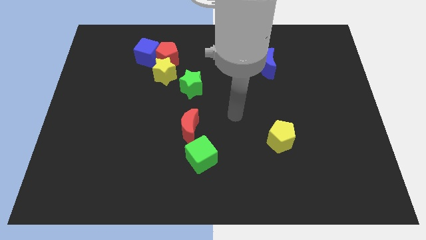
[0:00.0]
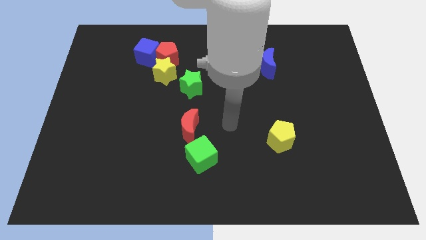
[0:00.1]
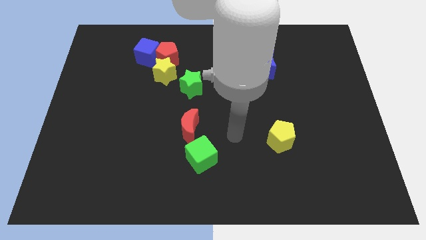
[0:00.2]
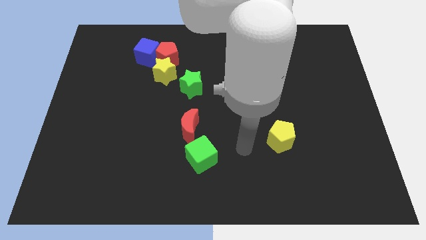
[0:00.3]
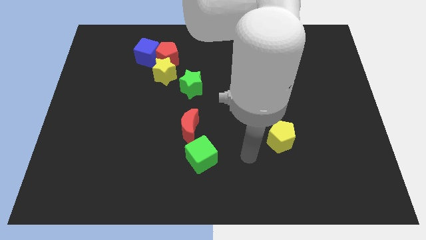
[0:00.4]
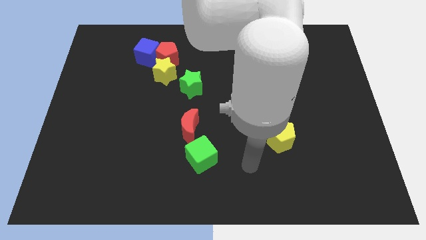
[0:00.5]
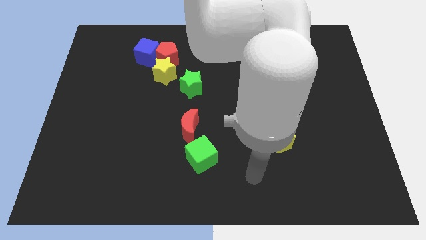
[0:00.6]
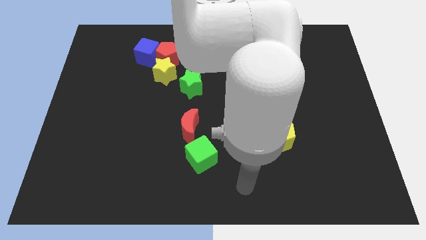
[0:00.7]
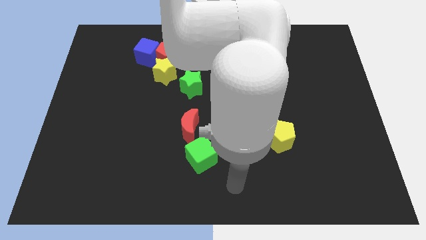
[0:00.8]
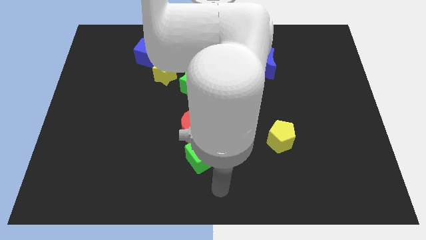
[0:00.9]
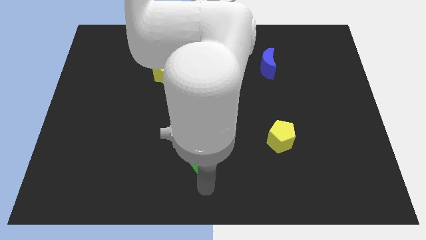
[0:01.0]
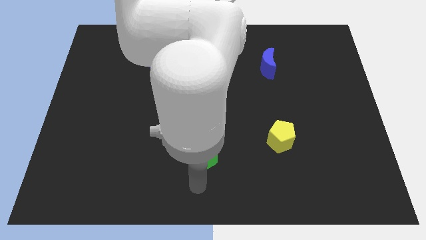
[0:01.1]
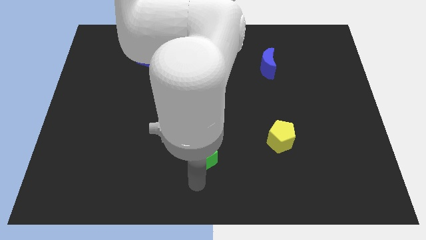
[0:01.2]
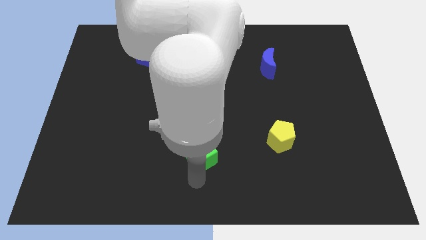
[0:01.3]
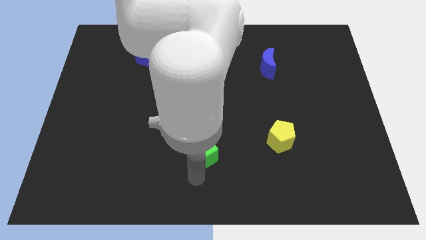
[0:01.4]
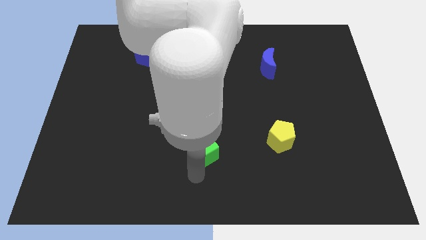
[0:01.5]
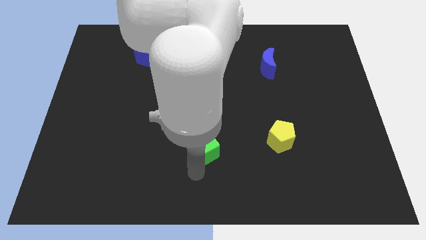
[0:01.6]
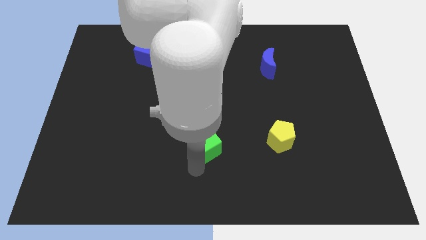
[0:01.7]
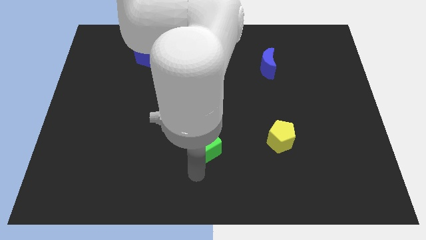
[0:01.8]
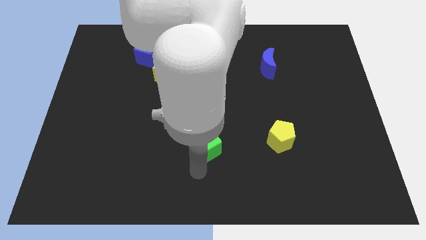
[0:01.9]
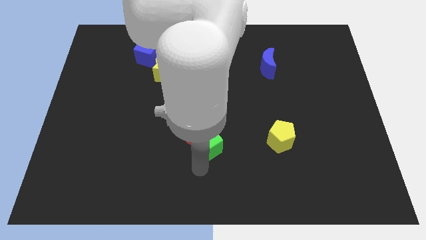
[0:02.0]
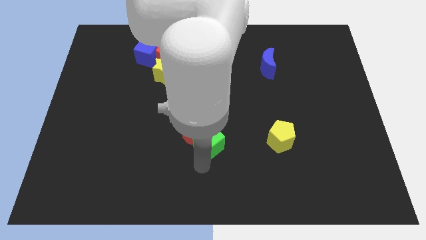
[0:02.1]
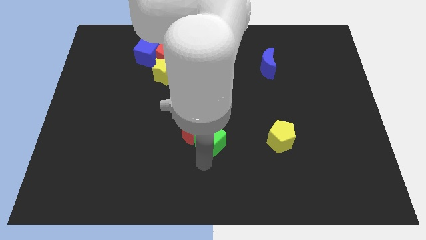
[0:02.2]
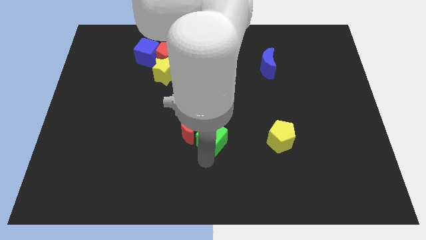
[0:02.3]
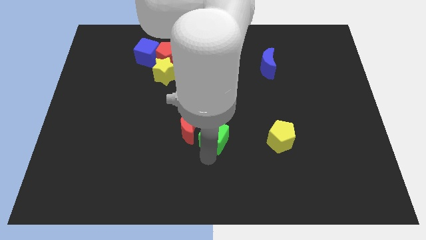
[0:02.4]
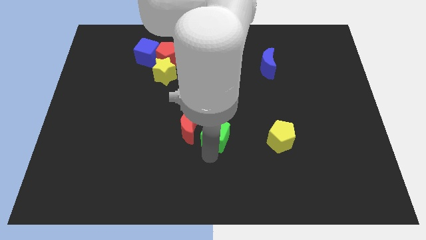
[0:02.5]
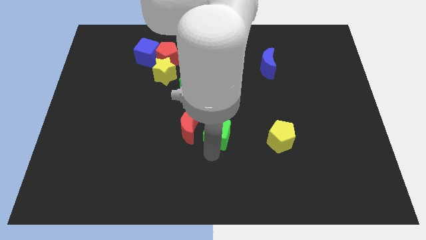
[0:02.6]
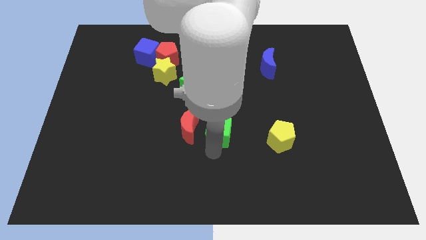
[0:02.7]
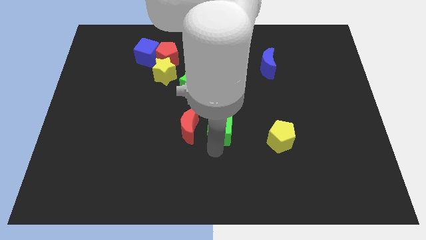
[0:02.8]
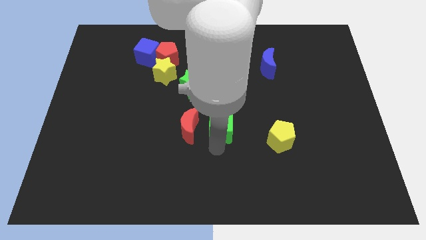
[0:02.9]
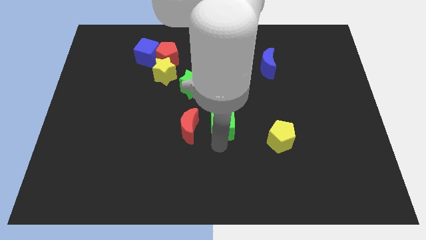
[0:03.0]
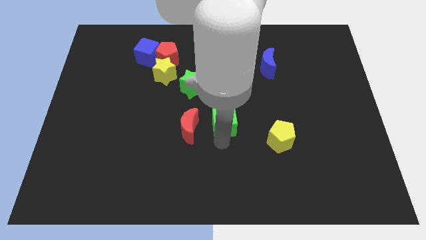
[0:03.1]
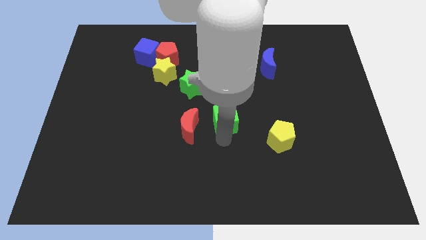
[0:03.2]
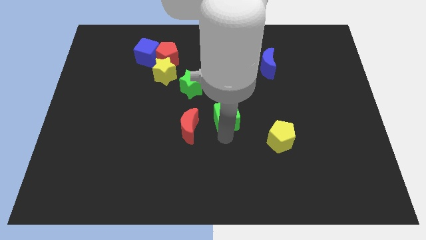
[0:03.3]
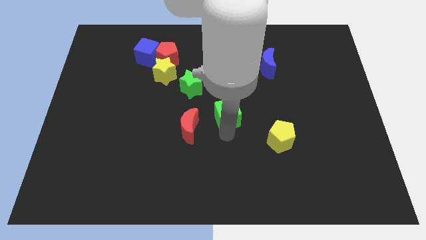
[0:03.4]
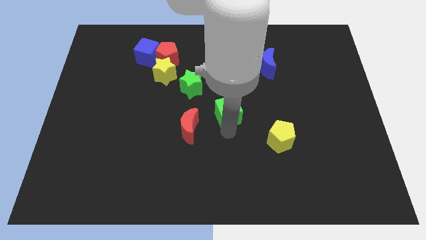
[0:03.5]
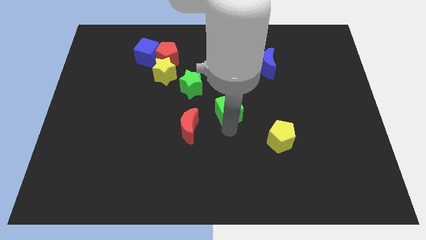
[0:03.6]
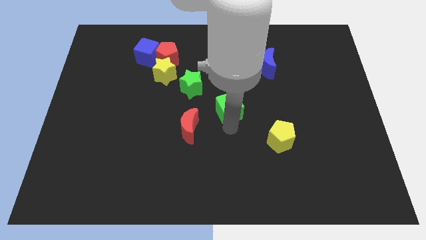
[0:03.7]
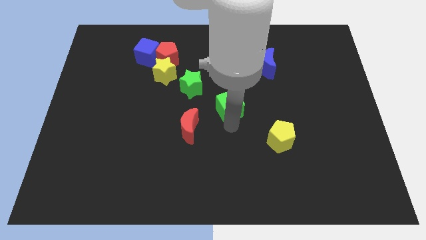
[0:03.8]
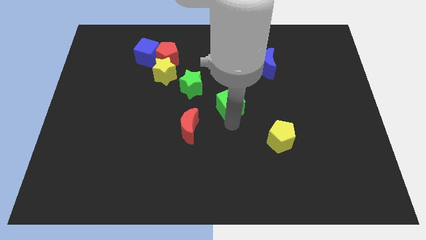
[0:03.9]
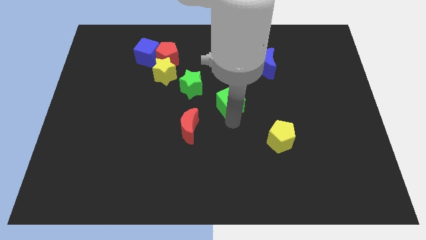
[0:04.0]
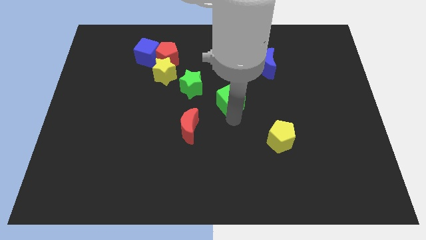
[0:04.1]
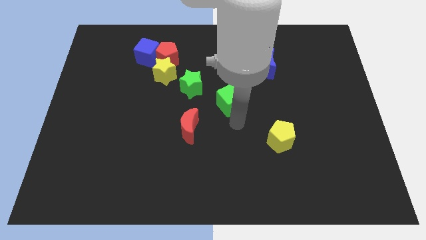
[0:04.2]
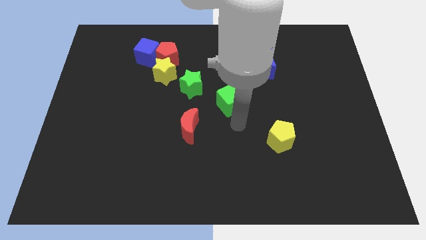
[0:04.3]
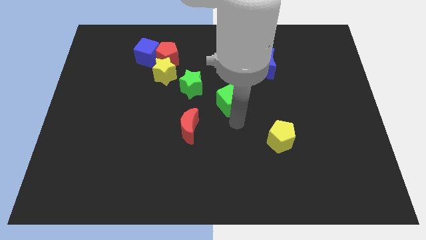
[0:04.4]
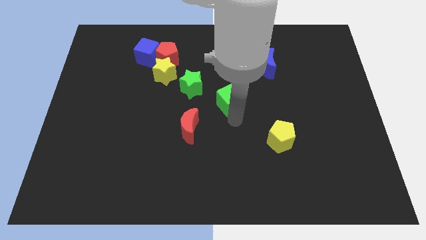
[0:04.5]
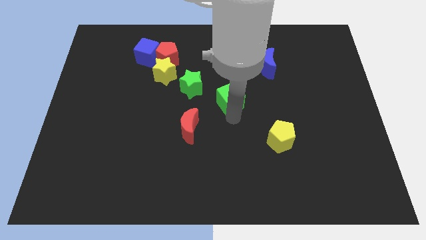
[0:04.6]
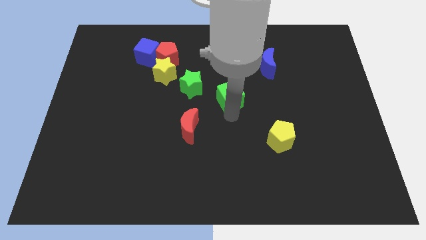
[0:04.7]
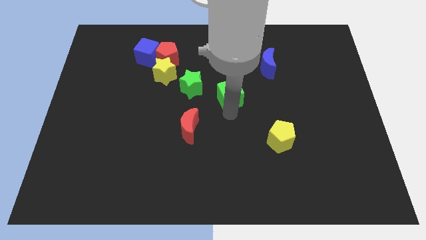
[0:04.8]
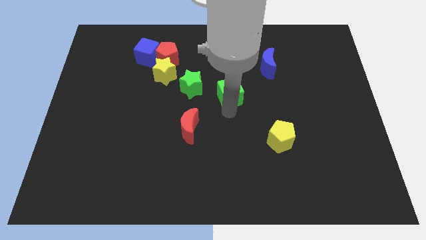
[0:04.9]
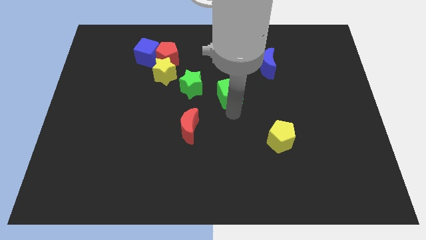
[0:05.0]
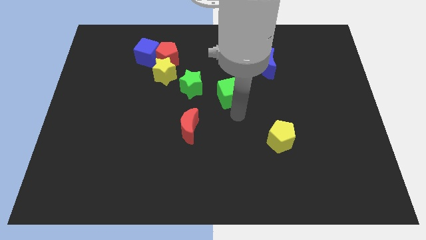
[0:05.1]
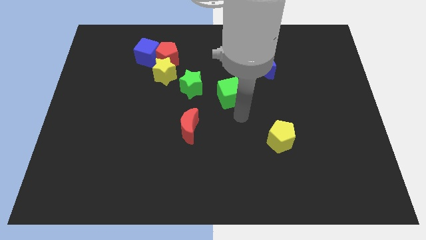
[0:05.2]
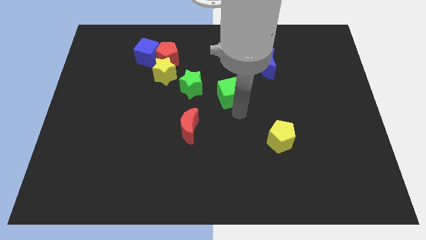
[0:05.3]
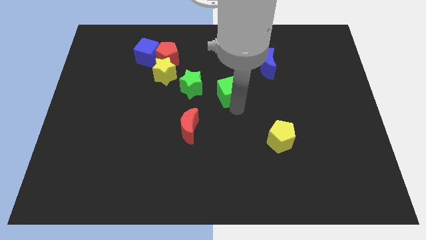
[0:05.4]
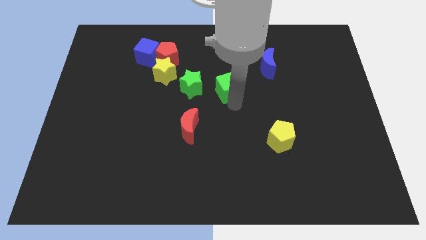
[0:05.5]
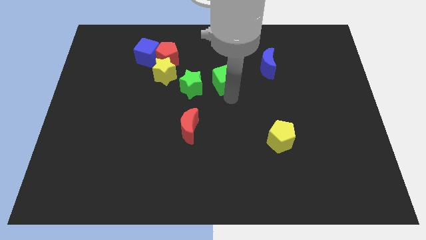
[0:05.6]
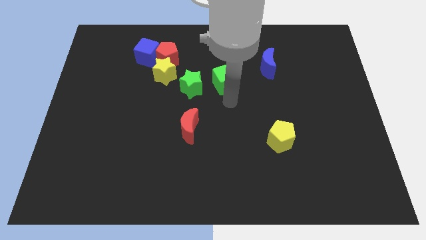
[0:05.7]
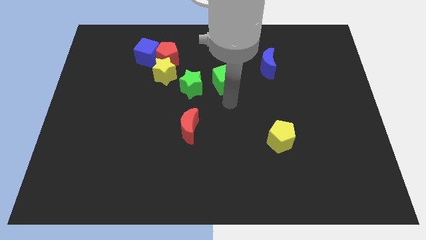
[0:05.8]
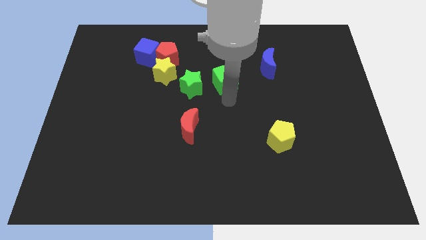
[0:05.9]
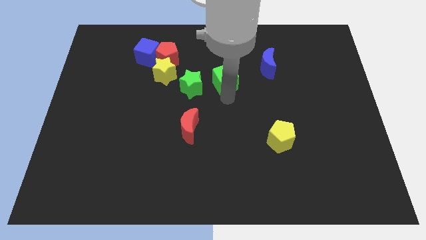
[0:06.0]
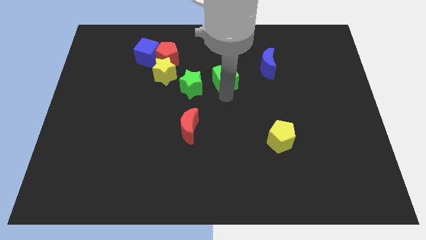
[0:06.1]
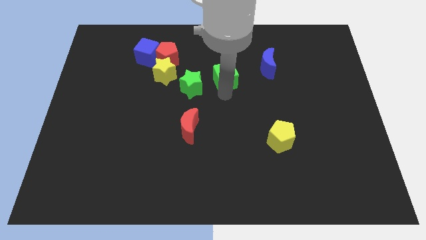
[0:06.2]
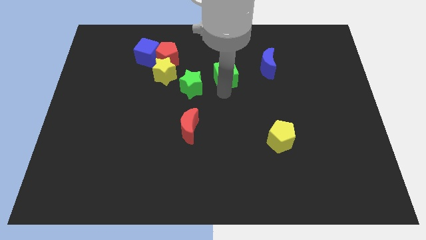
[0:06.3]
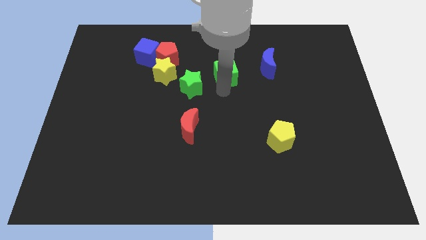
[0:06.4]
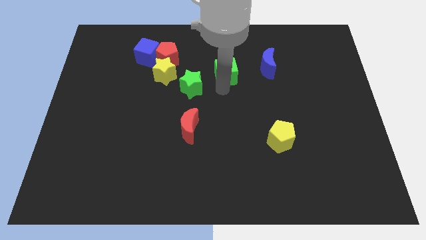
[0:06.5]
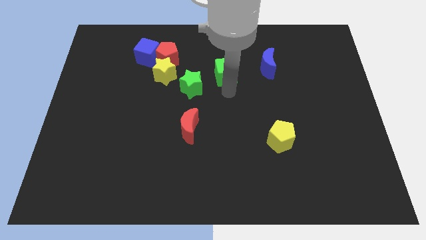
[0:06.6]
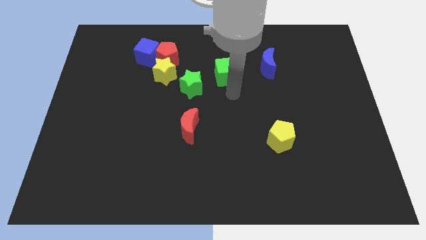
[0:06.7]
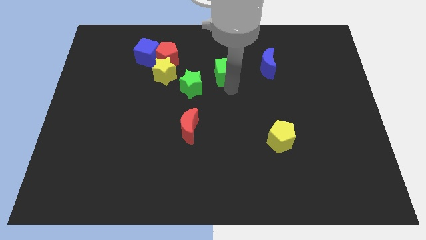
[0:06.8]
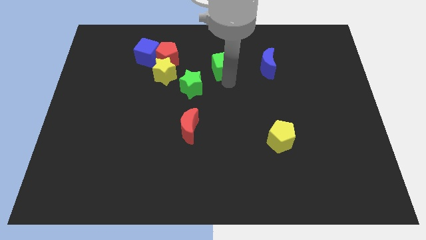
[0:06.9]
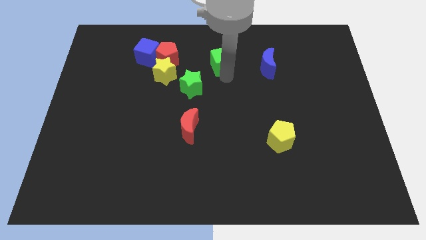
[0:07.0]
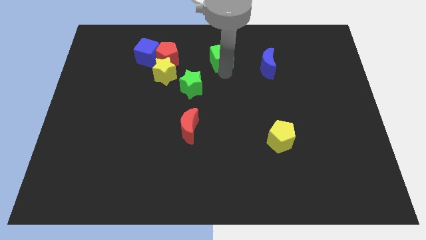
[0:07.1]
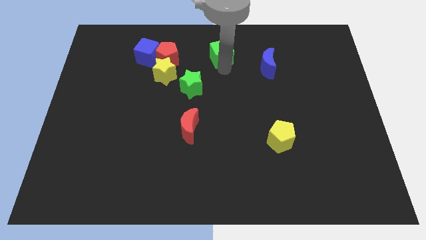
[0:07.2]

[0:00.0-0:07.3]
move the green cube to the towards your base

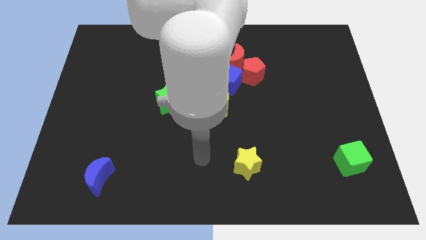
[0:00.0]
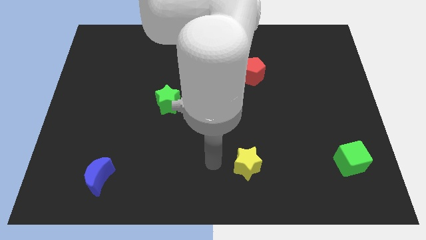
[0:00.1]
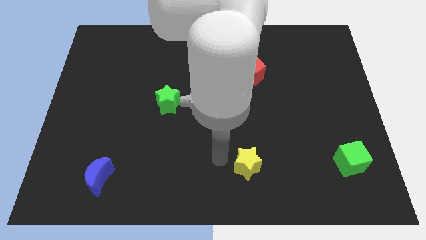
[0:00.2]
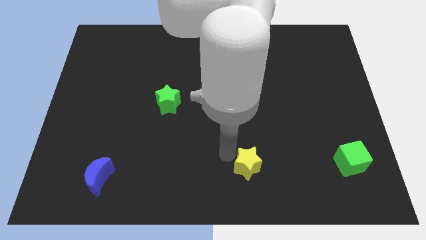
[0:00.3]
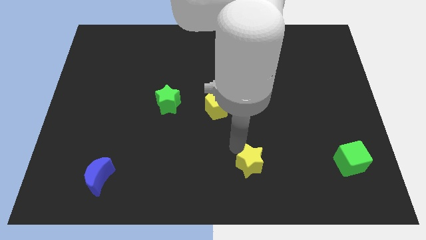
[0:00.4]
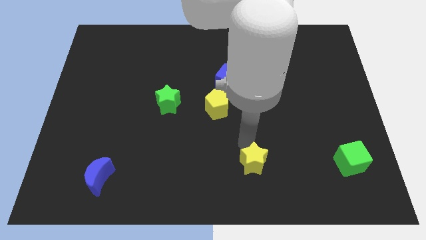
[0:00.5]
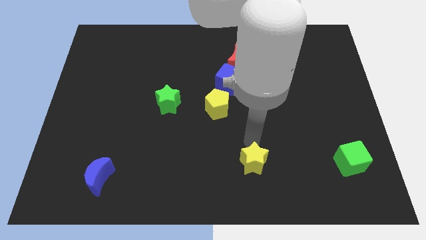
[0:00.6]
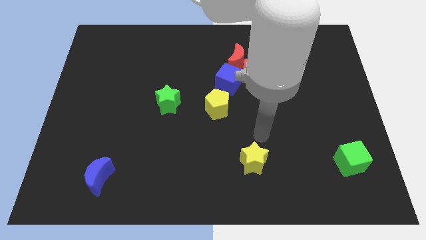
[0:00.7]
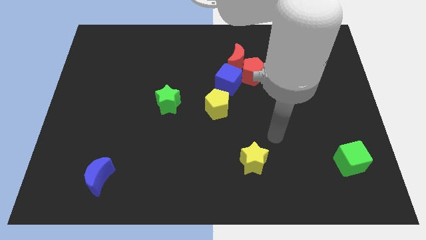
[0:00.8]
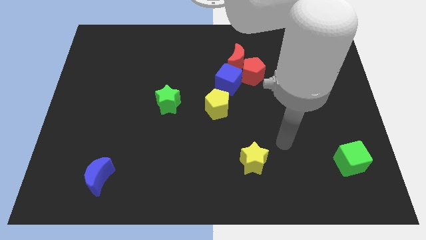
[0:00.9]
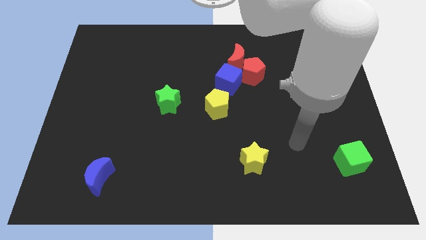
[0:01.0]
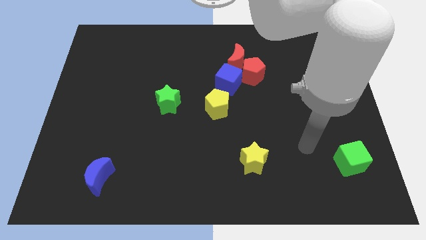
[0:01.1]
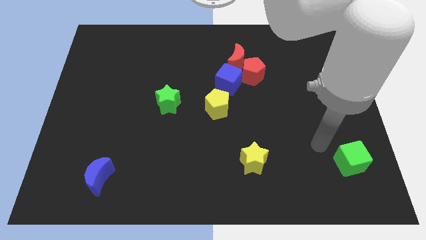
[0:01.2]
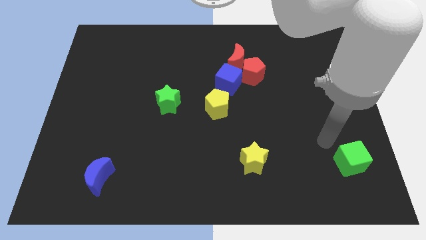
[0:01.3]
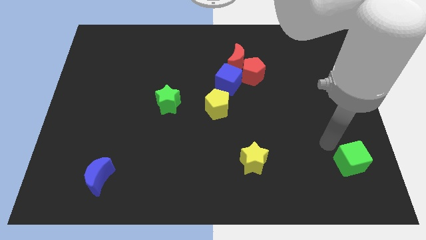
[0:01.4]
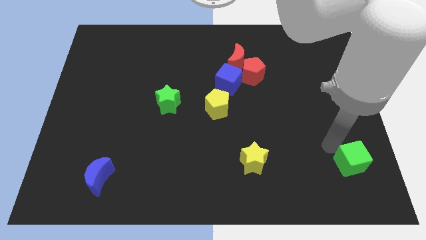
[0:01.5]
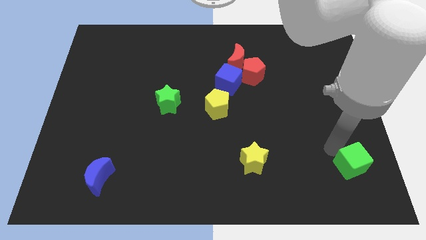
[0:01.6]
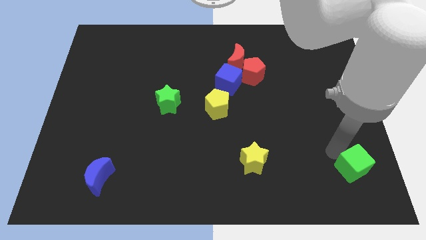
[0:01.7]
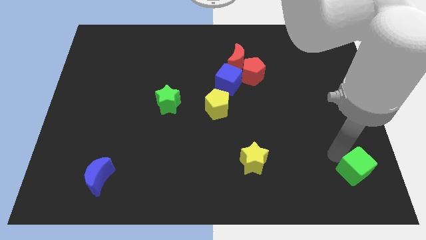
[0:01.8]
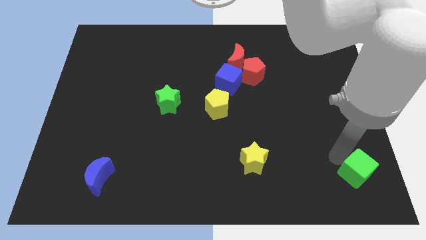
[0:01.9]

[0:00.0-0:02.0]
move the green cube to the bottom right corner
